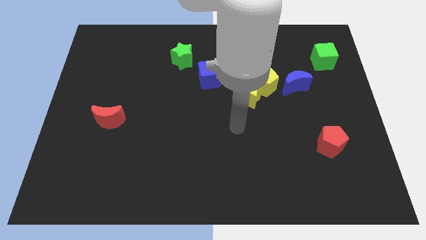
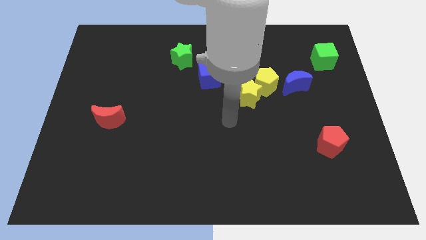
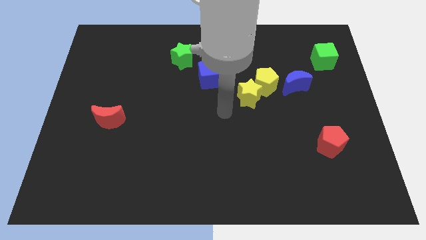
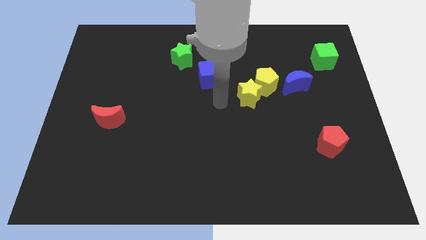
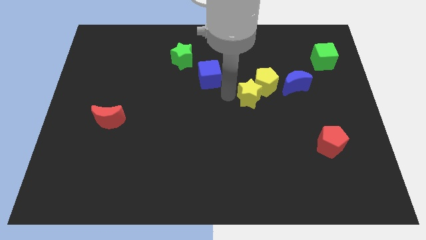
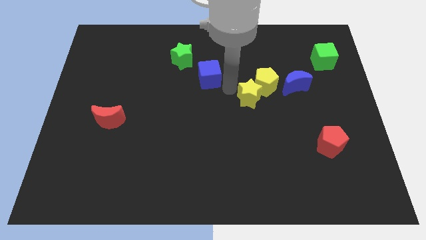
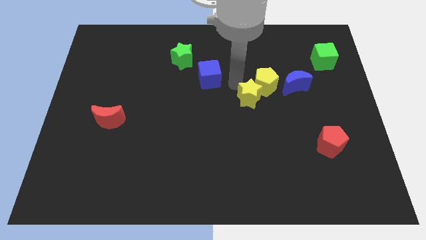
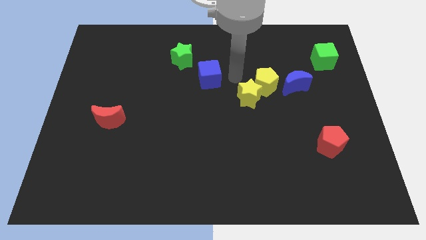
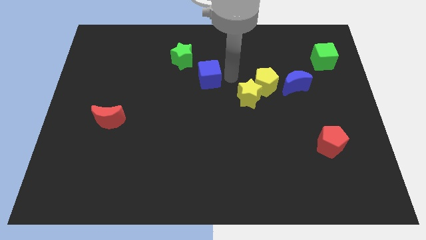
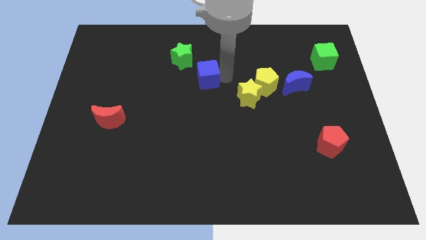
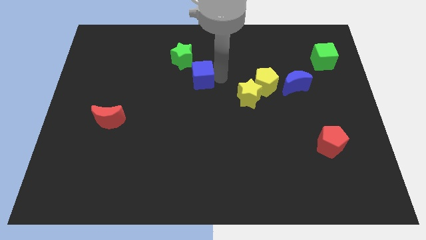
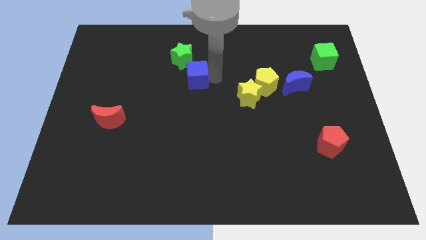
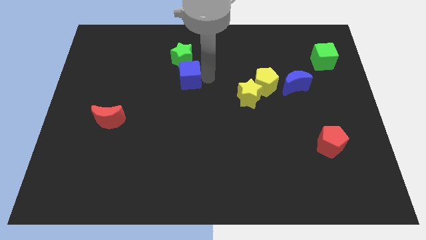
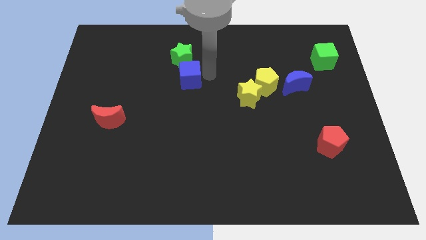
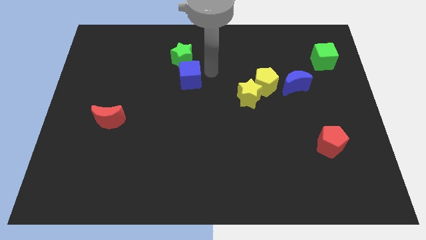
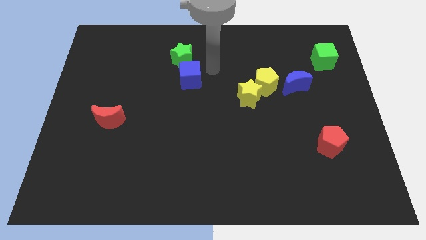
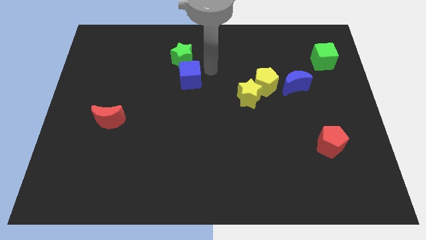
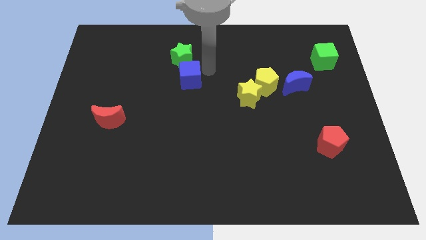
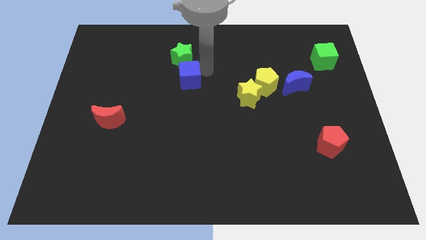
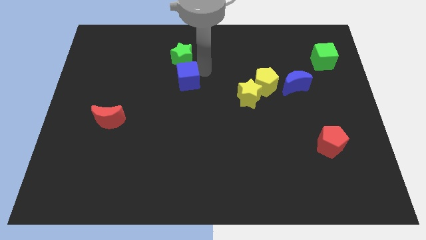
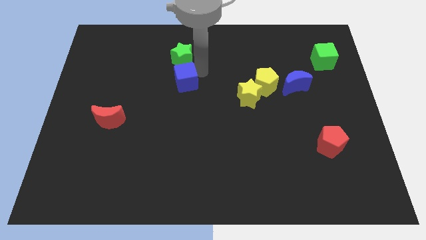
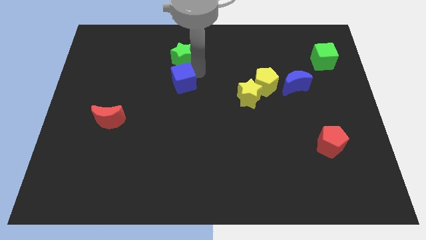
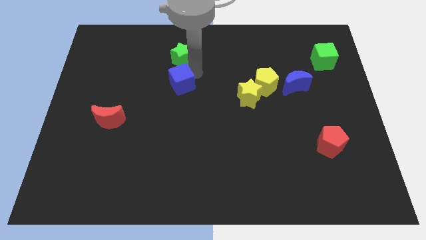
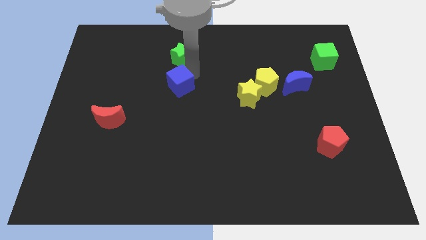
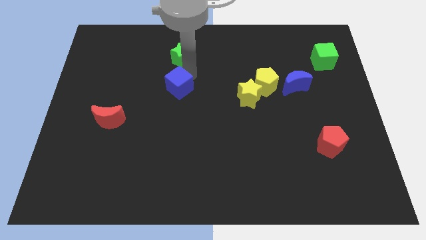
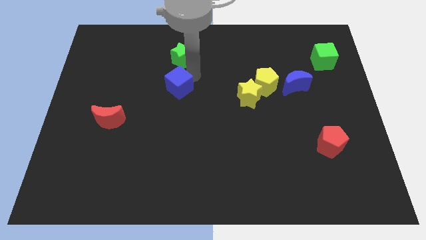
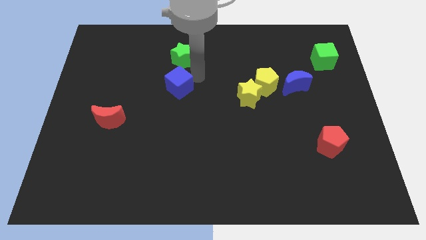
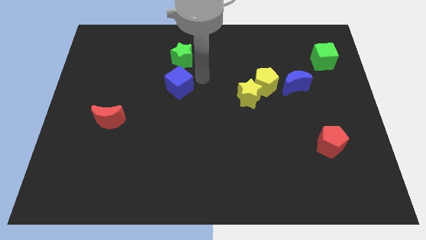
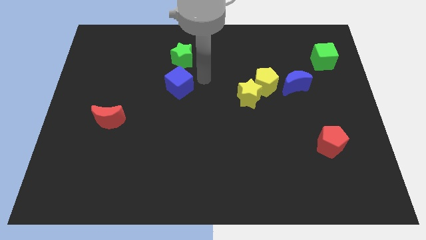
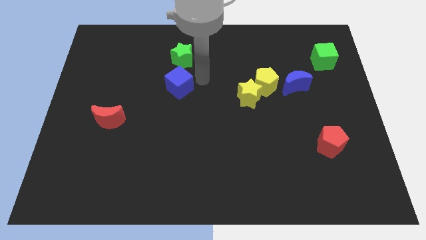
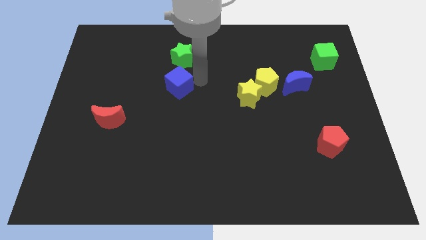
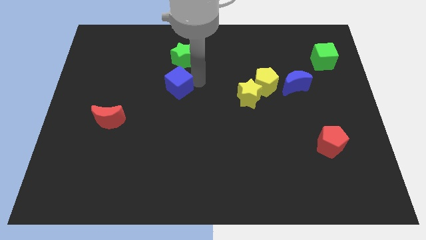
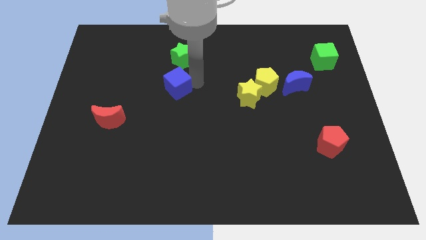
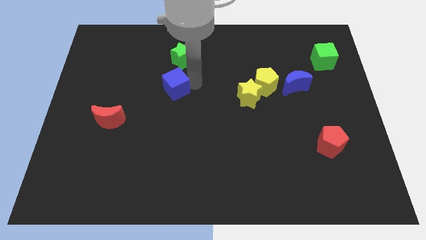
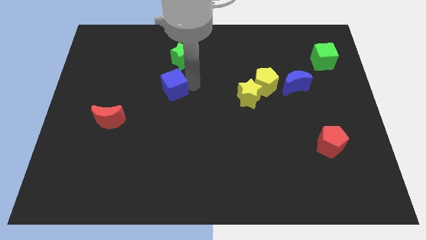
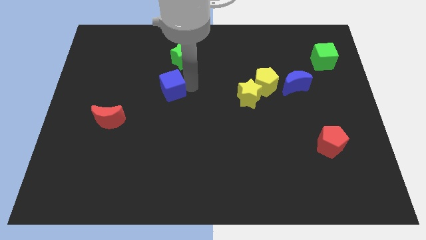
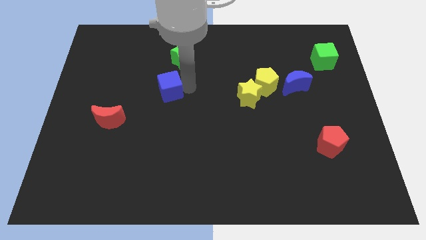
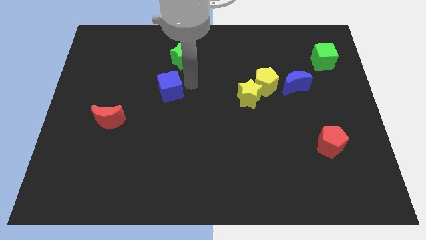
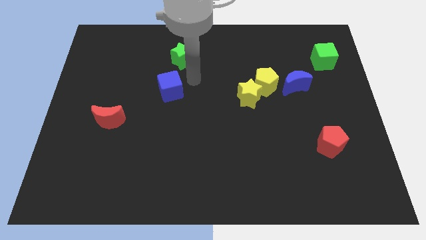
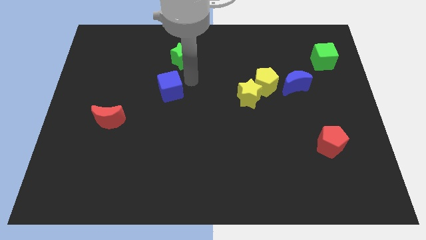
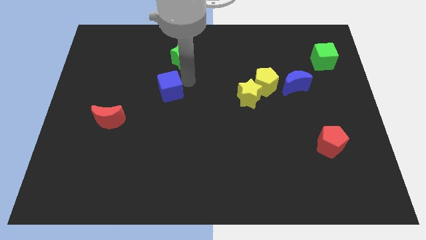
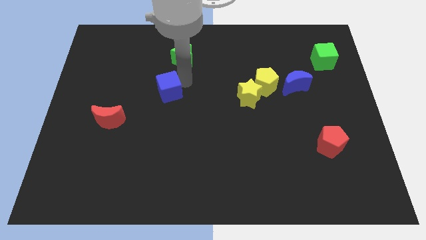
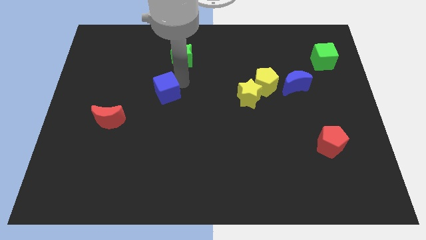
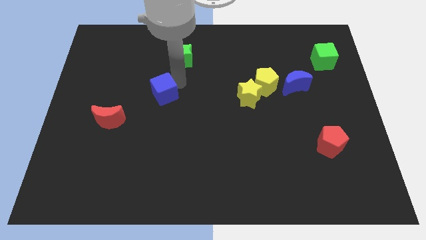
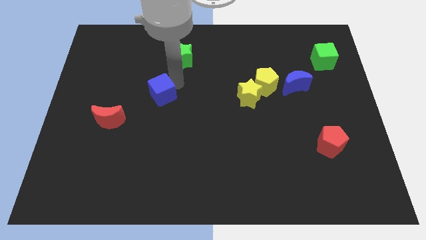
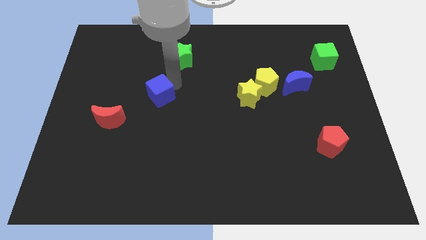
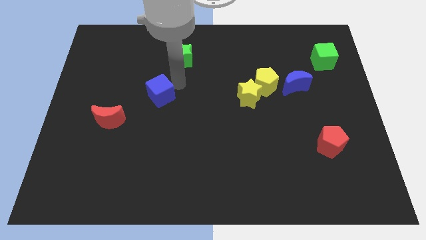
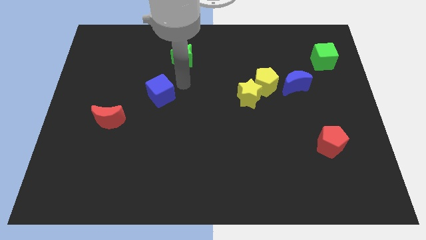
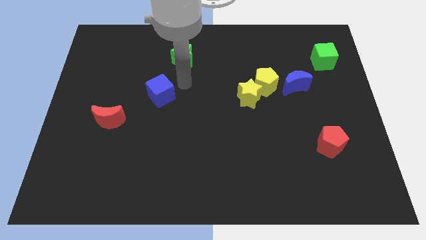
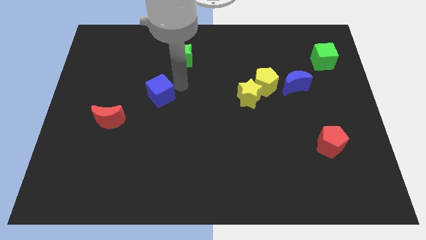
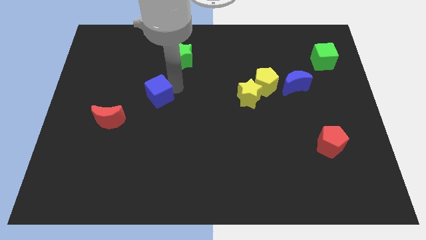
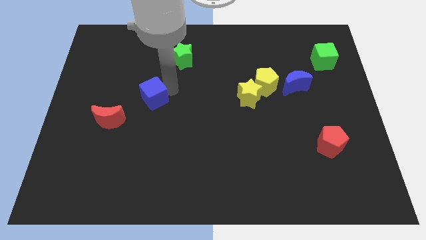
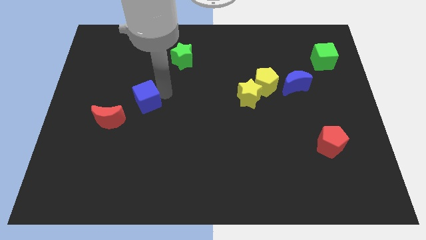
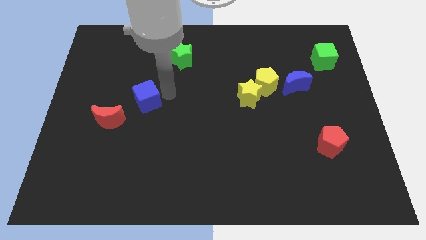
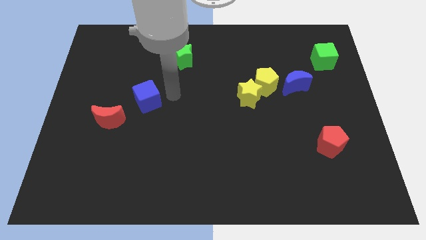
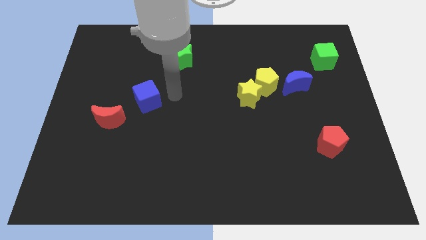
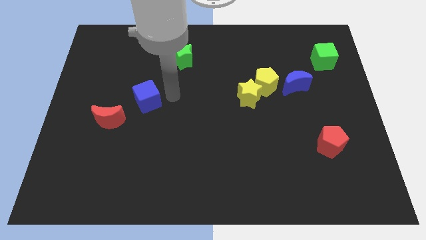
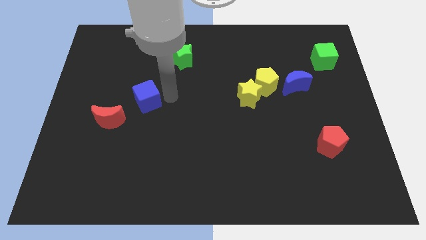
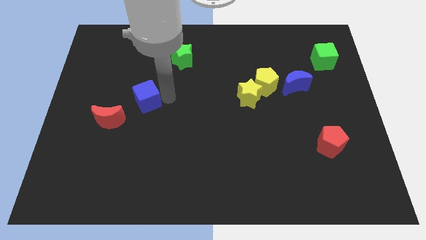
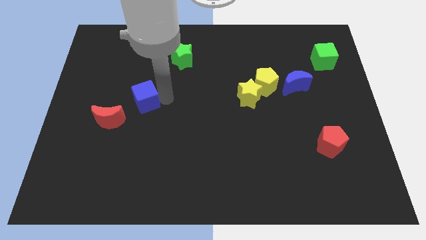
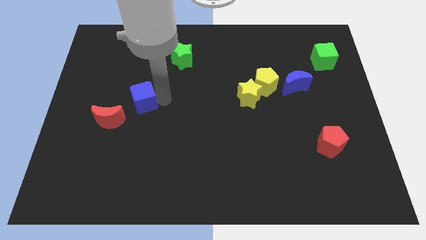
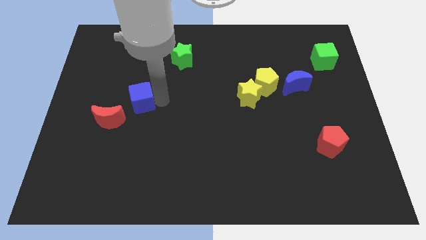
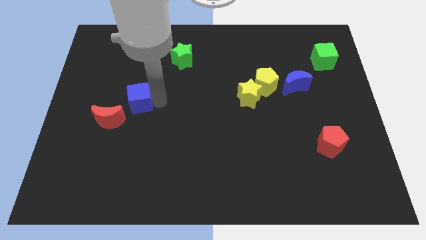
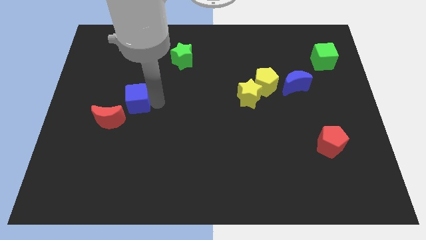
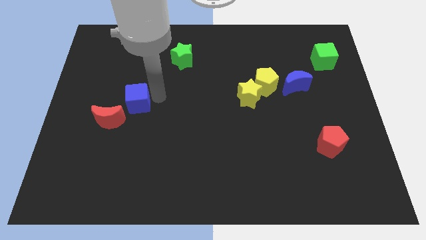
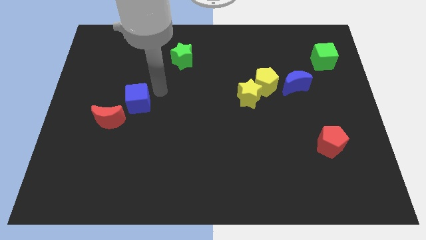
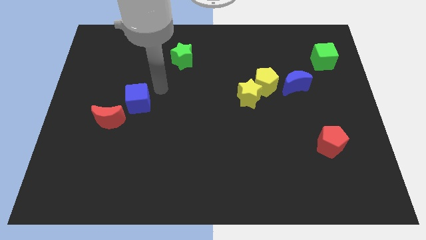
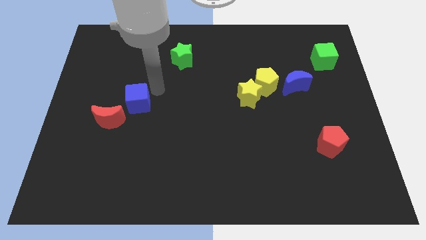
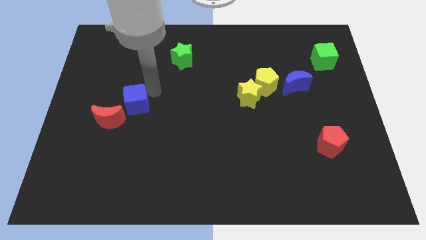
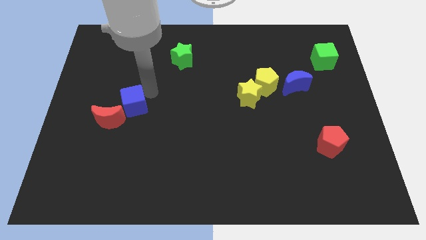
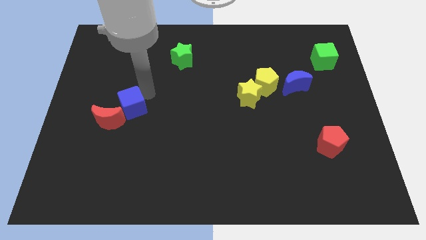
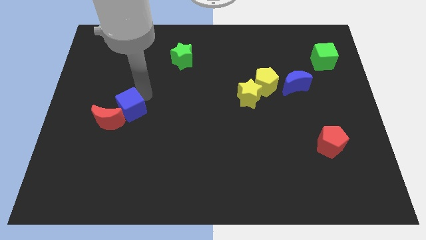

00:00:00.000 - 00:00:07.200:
put the blue cube towards the red moon

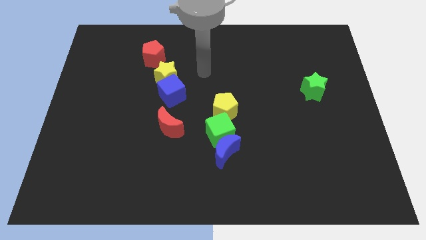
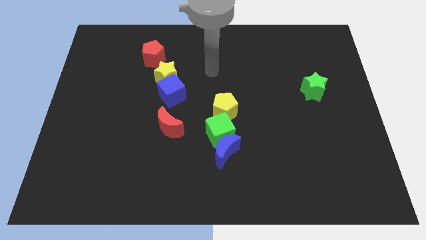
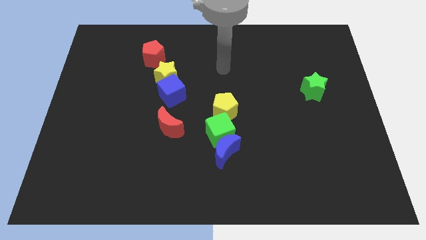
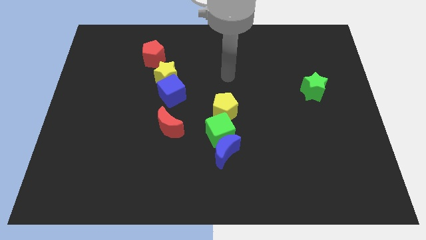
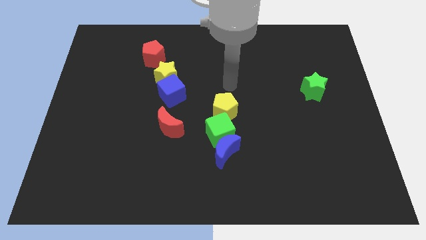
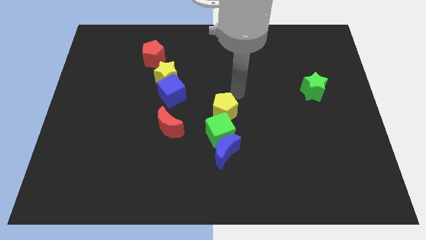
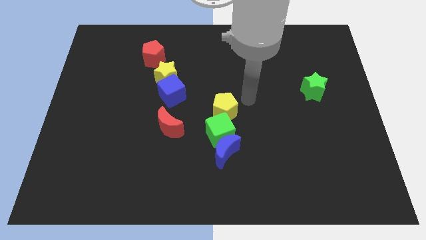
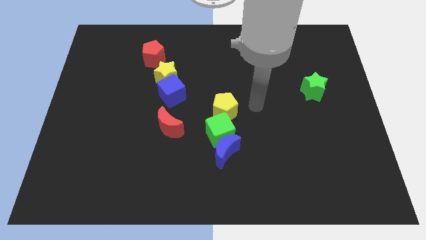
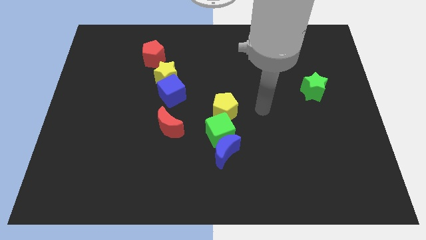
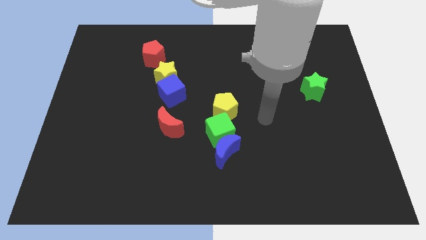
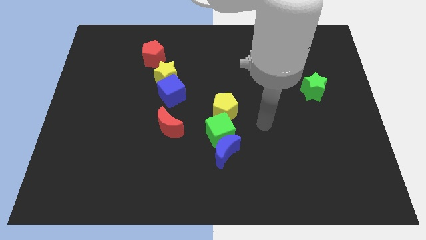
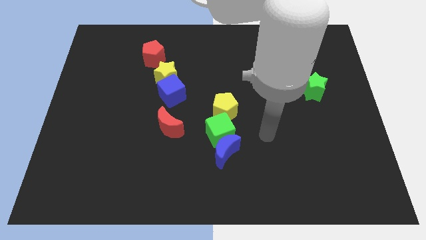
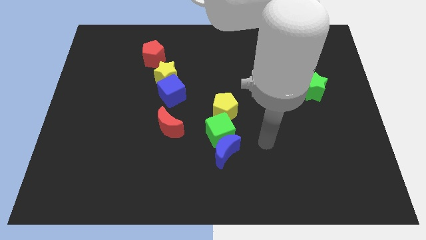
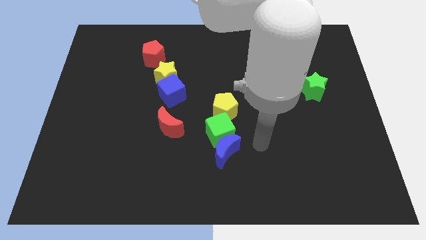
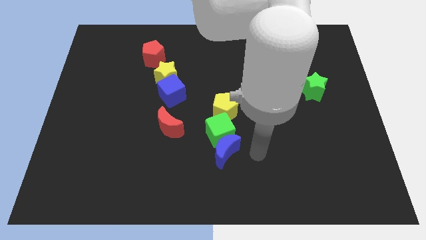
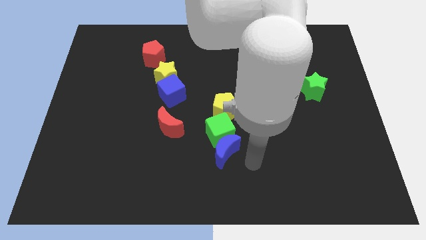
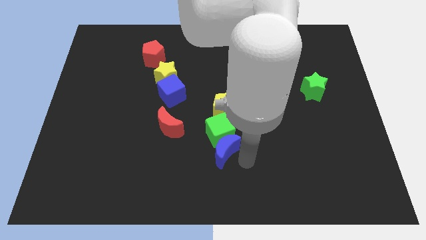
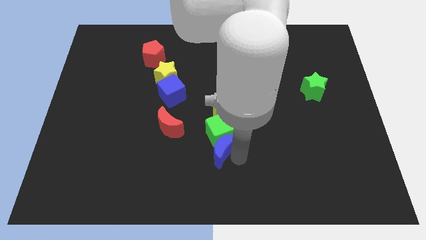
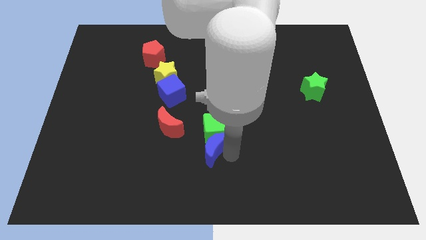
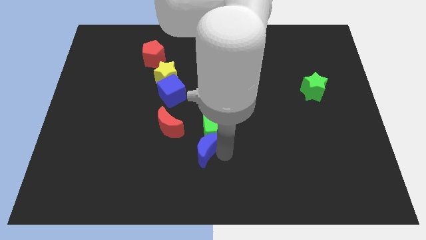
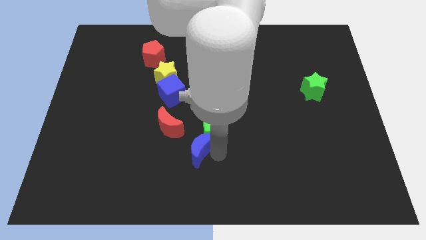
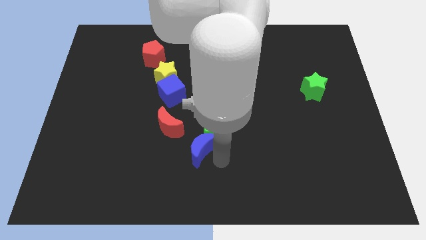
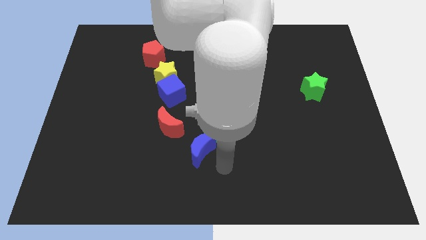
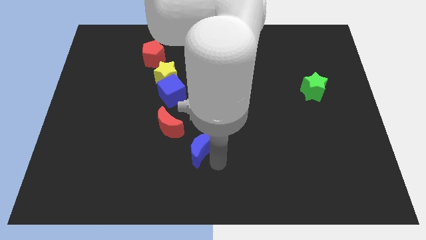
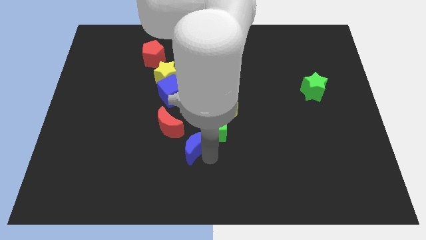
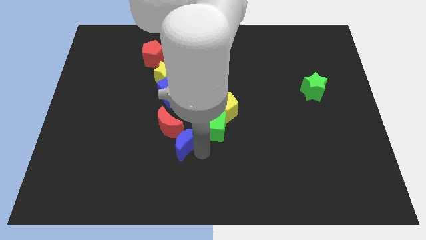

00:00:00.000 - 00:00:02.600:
move the blue moon next to the red moon
